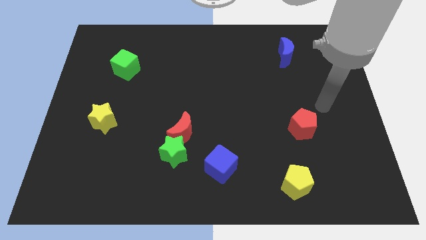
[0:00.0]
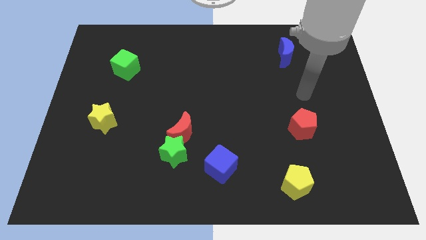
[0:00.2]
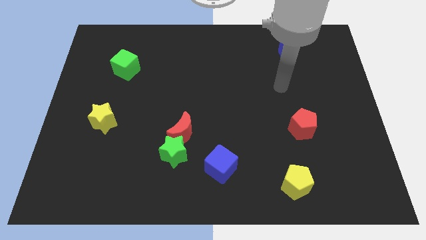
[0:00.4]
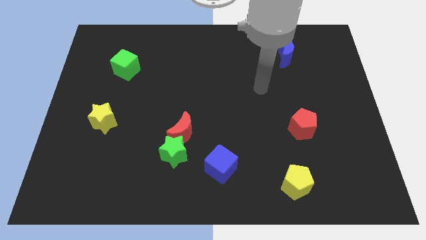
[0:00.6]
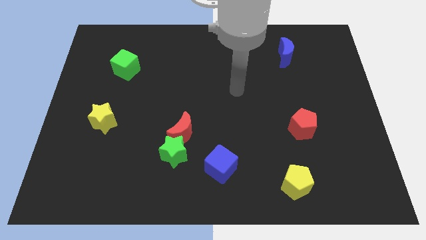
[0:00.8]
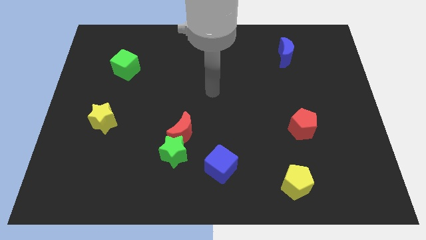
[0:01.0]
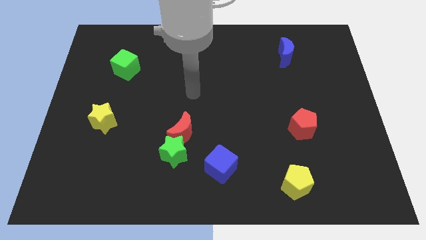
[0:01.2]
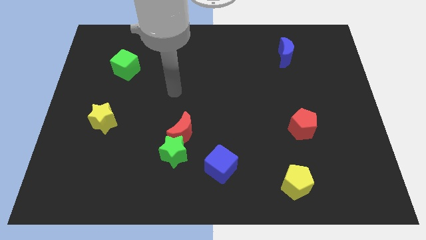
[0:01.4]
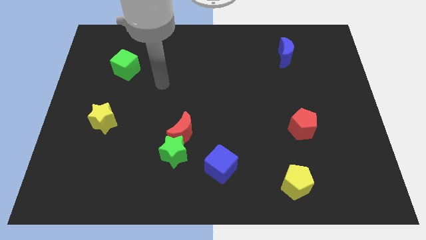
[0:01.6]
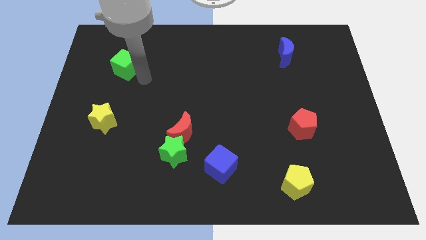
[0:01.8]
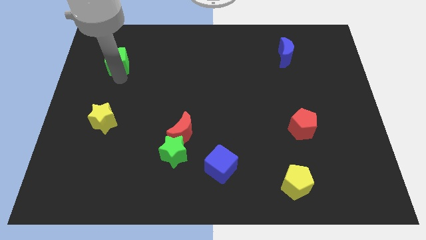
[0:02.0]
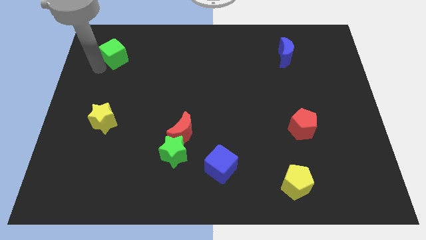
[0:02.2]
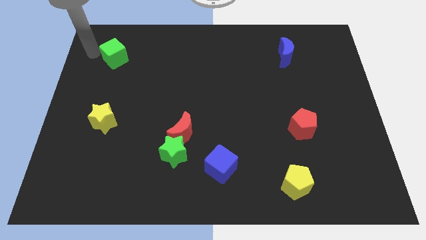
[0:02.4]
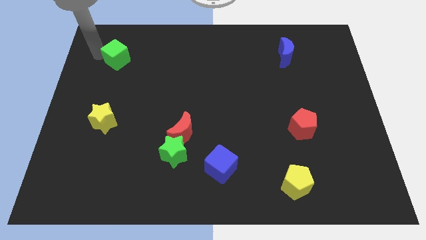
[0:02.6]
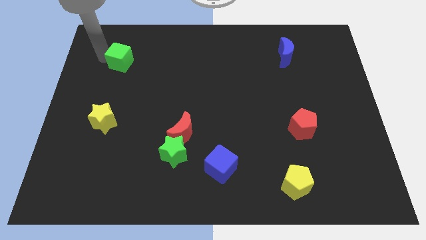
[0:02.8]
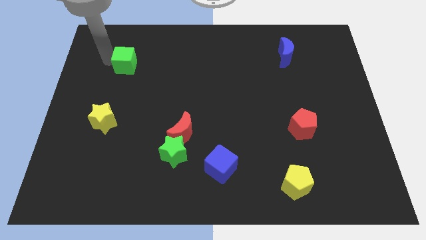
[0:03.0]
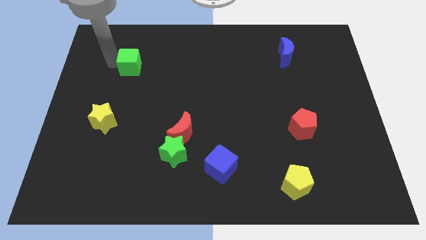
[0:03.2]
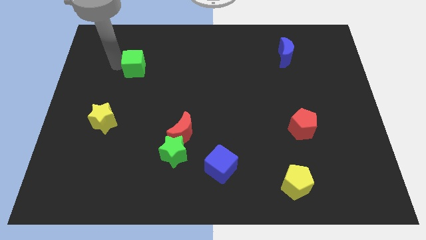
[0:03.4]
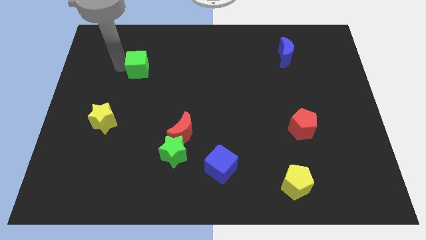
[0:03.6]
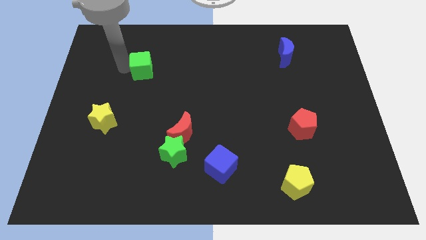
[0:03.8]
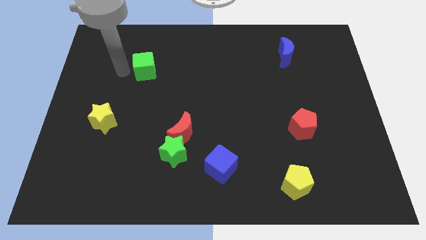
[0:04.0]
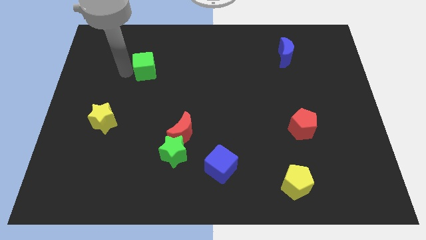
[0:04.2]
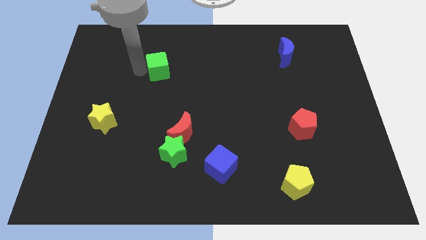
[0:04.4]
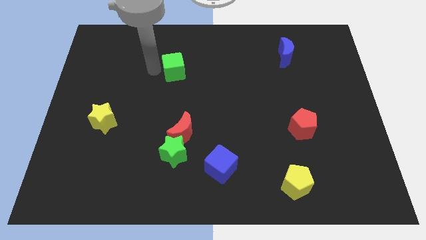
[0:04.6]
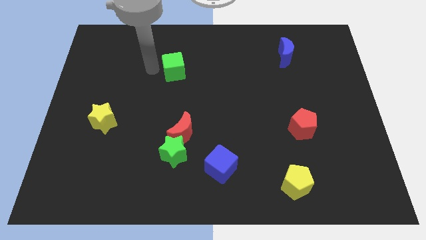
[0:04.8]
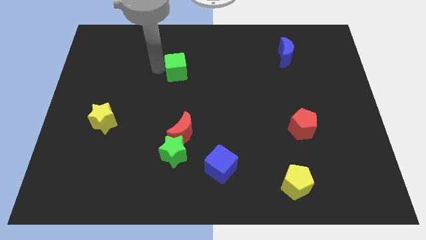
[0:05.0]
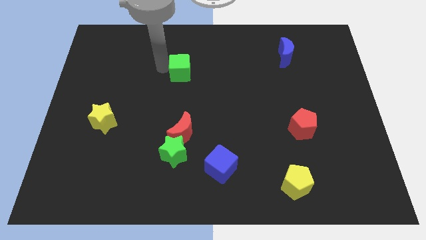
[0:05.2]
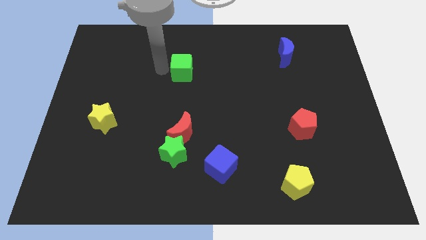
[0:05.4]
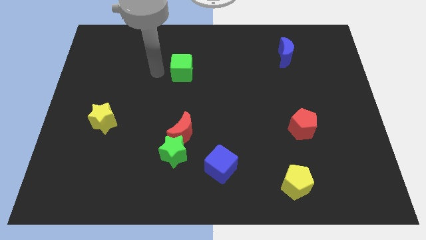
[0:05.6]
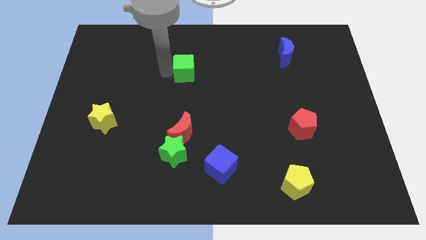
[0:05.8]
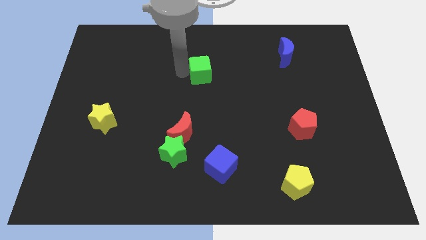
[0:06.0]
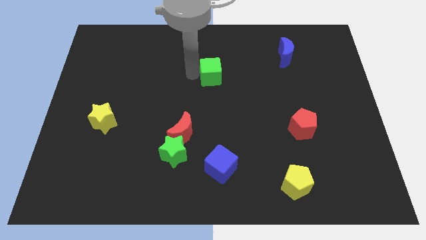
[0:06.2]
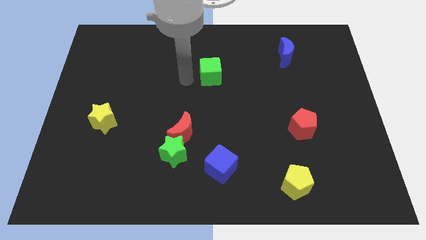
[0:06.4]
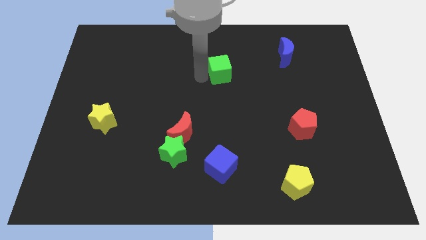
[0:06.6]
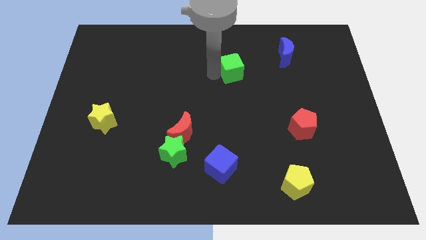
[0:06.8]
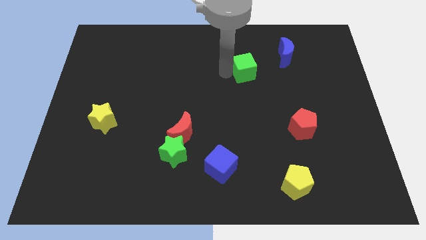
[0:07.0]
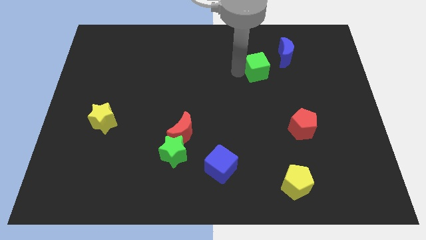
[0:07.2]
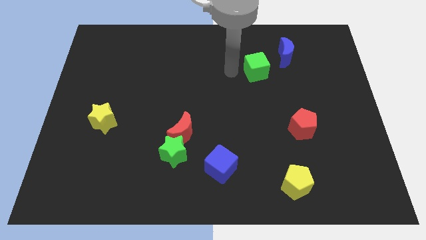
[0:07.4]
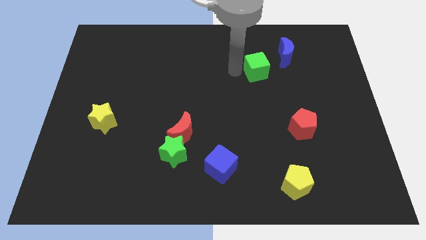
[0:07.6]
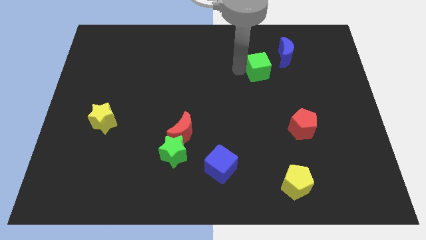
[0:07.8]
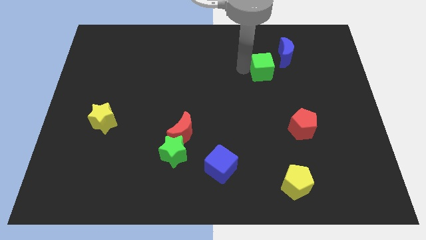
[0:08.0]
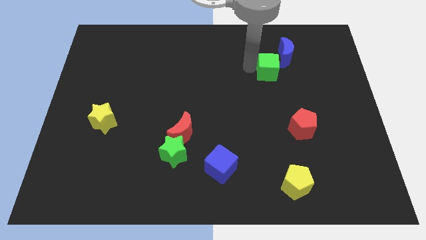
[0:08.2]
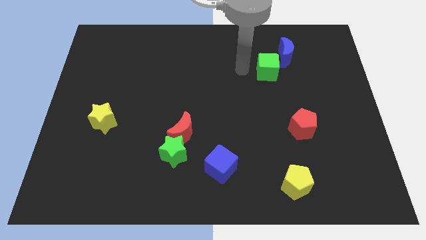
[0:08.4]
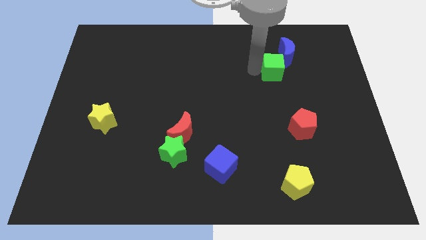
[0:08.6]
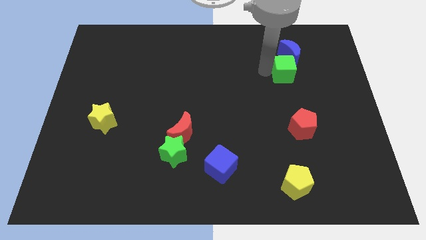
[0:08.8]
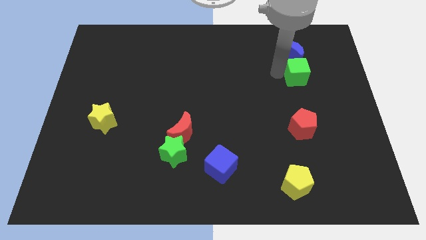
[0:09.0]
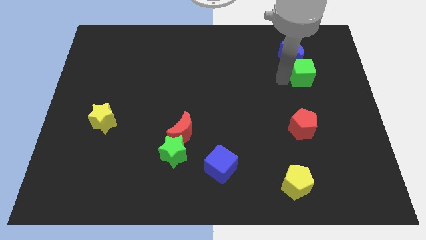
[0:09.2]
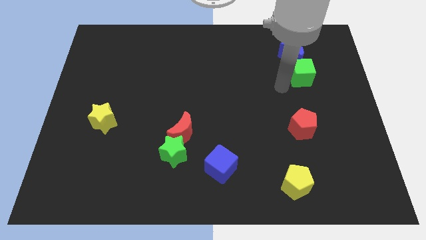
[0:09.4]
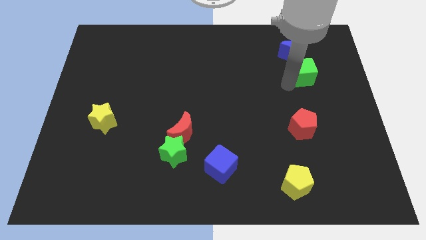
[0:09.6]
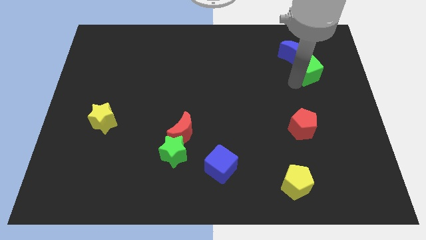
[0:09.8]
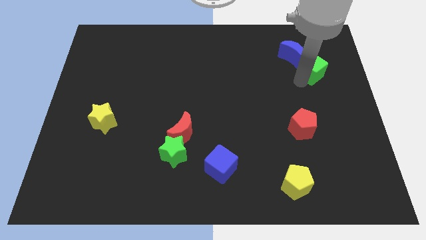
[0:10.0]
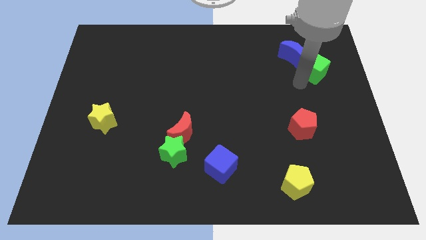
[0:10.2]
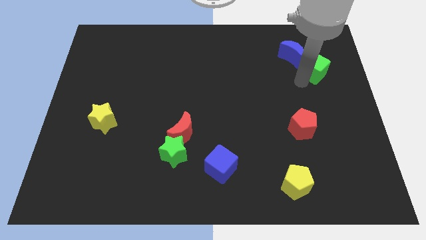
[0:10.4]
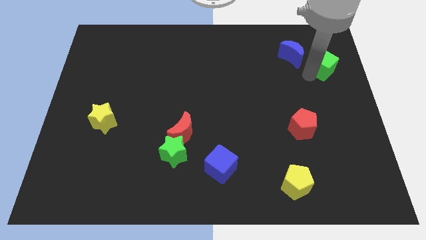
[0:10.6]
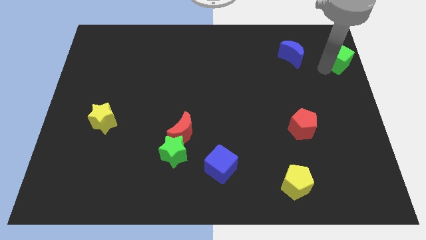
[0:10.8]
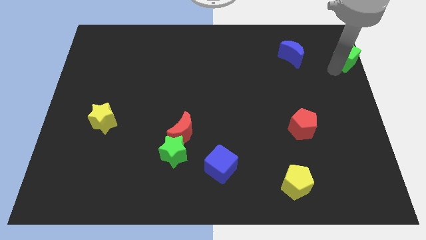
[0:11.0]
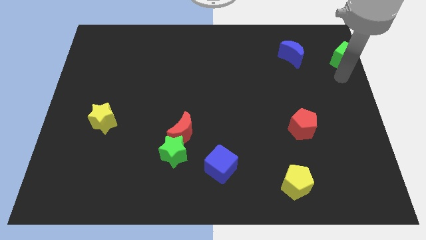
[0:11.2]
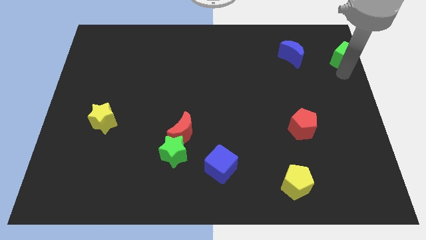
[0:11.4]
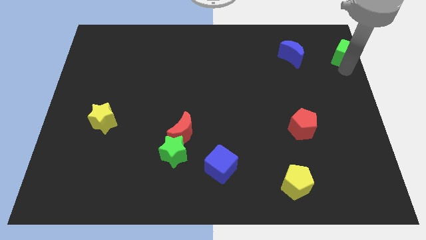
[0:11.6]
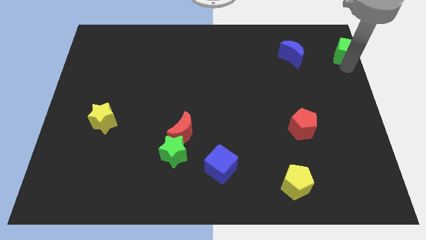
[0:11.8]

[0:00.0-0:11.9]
put the green cube to the top right

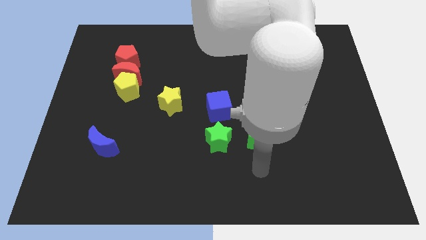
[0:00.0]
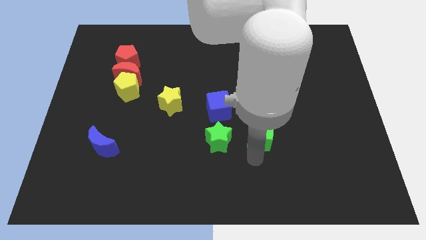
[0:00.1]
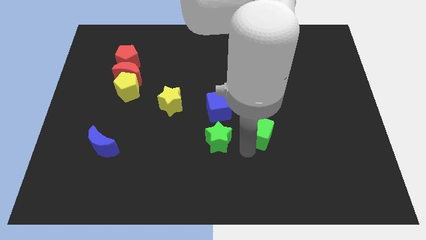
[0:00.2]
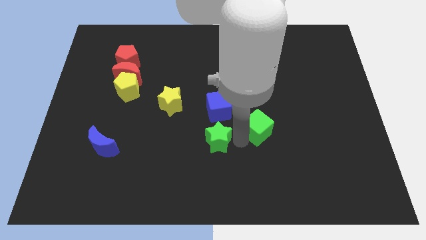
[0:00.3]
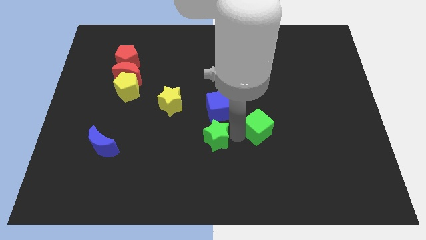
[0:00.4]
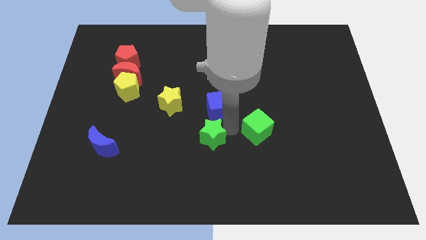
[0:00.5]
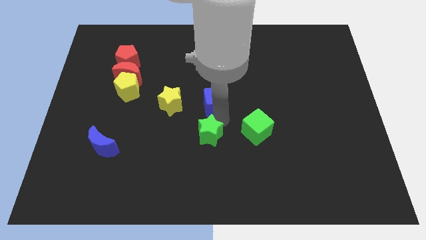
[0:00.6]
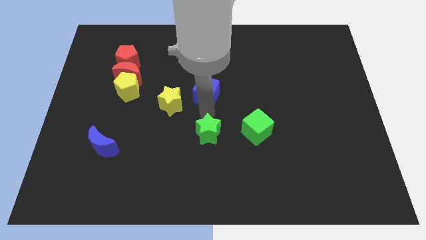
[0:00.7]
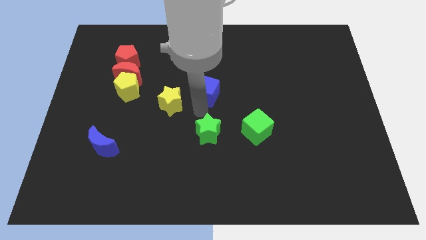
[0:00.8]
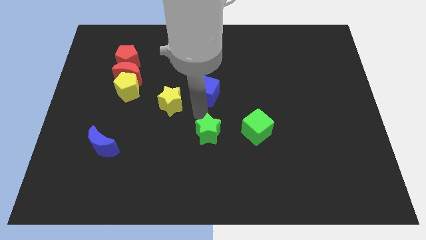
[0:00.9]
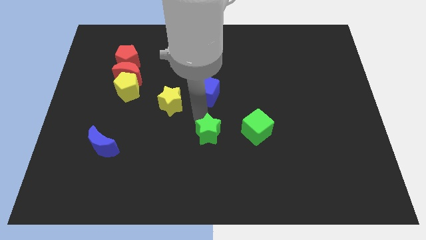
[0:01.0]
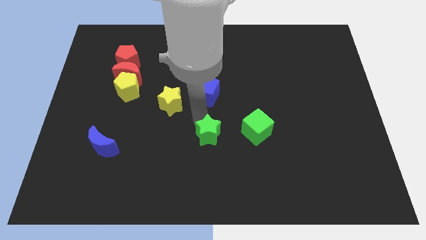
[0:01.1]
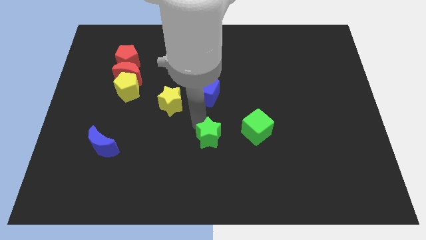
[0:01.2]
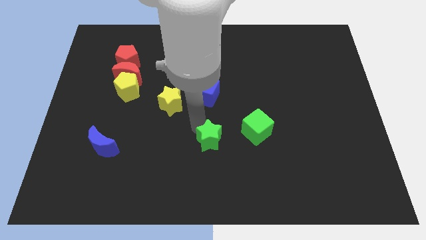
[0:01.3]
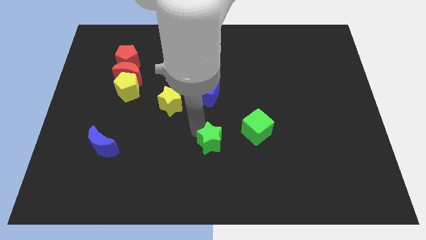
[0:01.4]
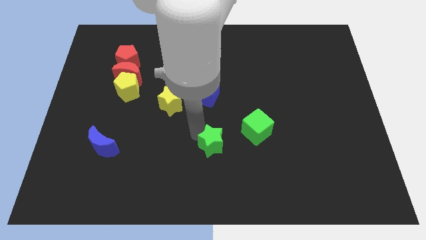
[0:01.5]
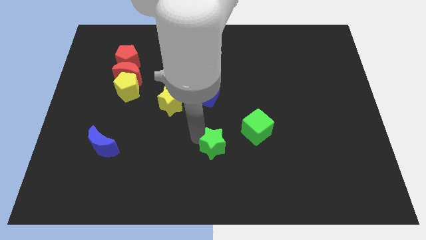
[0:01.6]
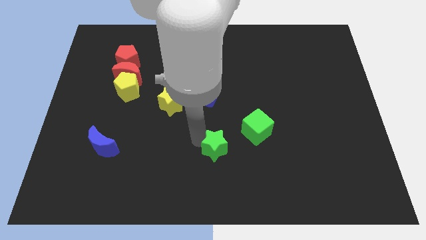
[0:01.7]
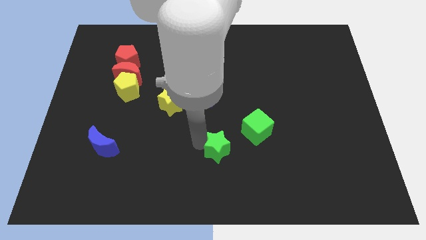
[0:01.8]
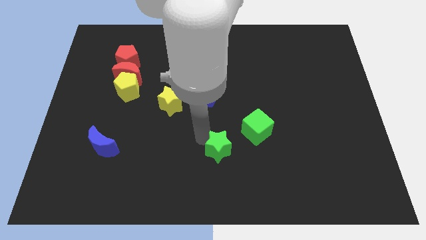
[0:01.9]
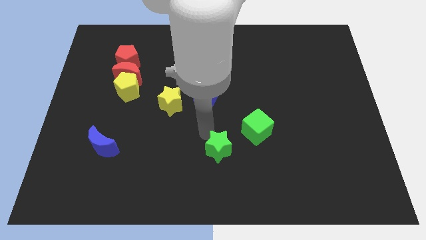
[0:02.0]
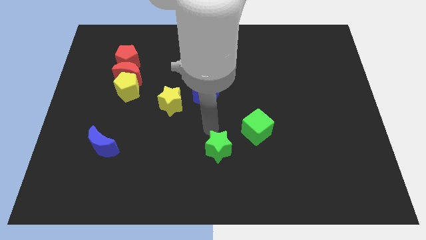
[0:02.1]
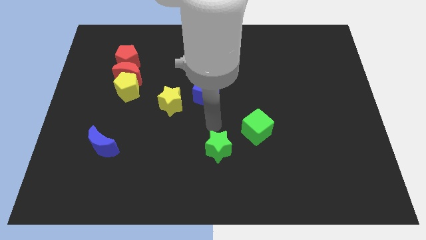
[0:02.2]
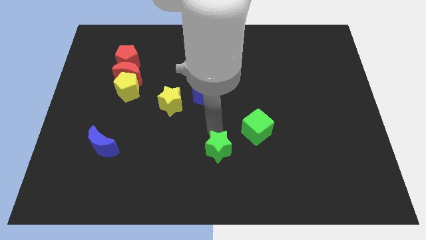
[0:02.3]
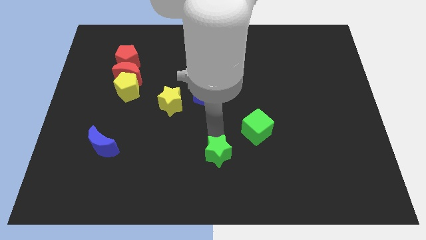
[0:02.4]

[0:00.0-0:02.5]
slide the green star to the bottom side
